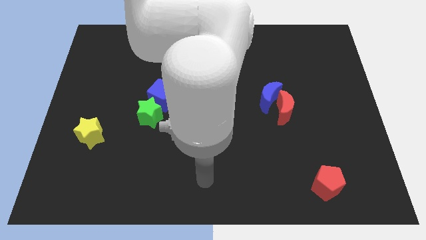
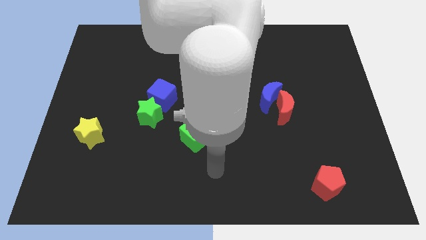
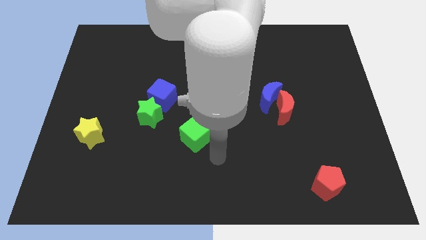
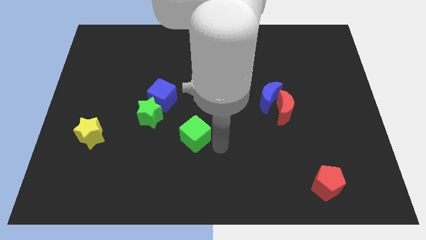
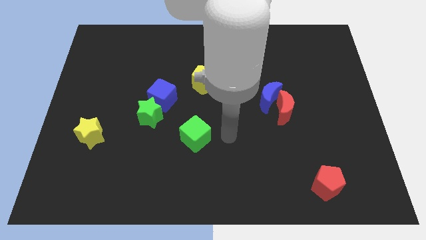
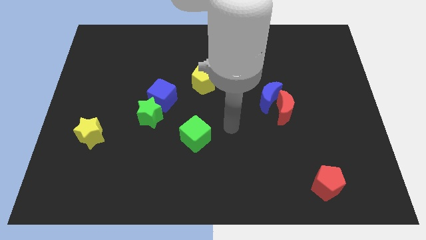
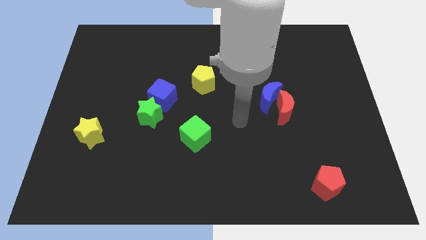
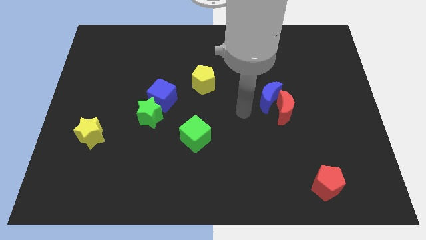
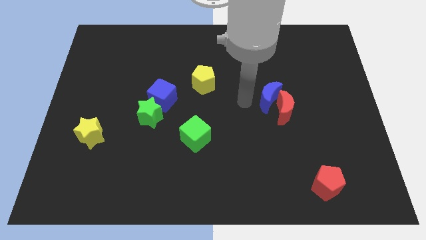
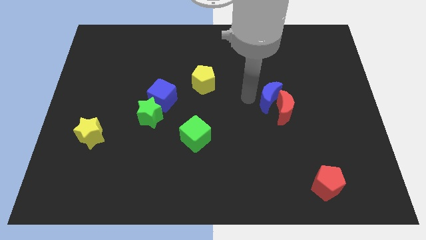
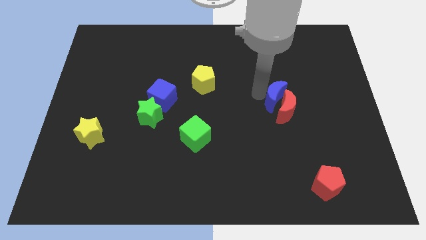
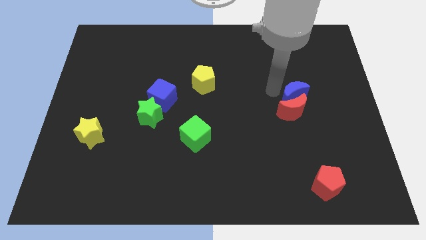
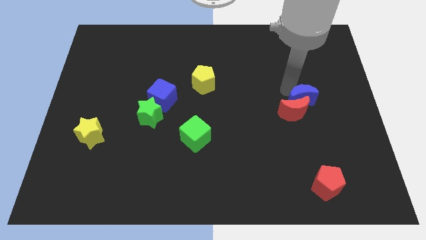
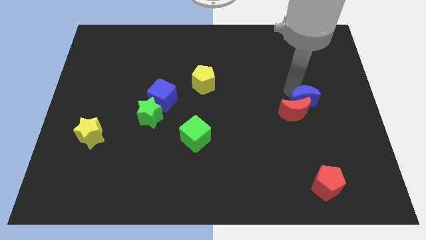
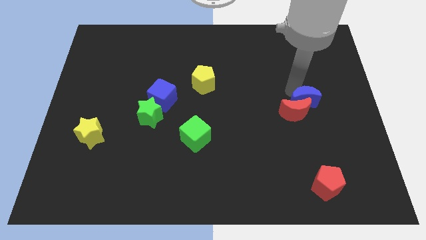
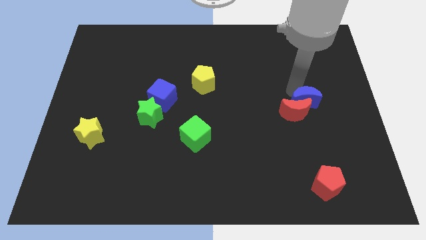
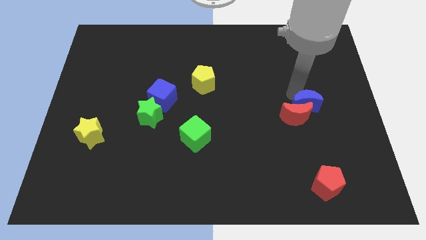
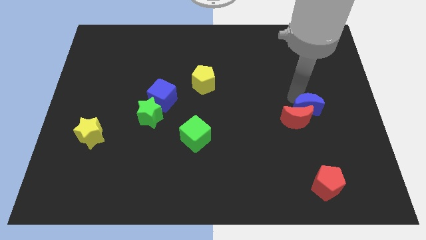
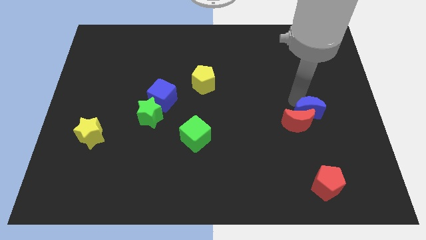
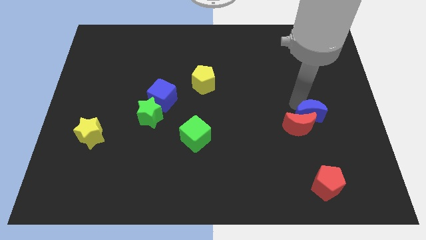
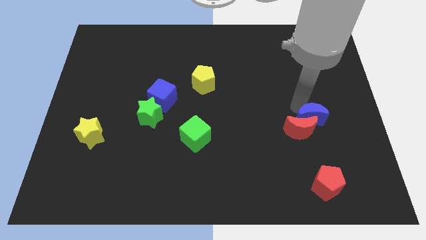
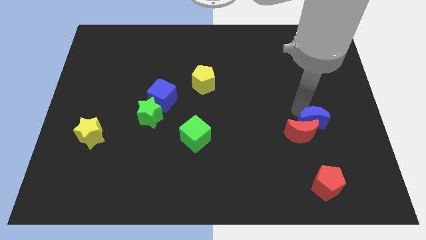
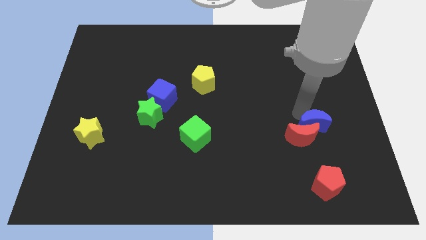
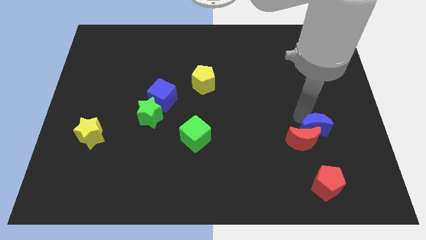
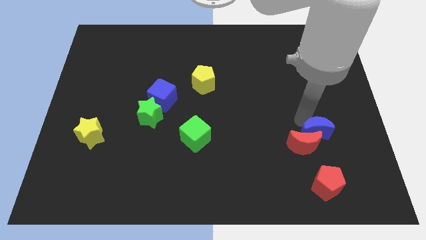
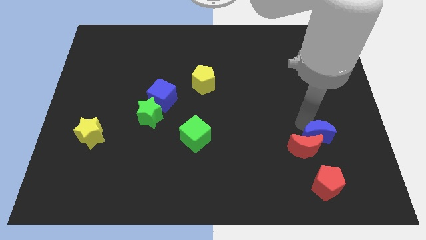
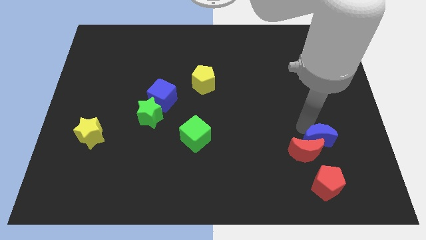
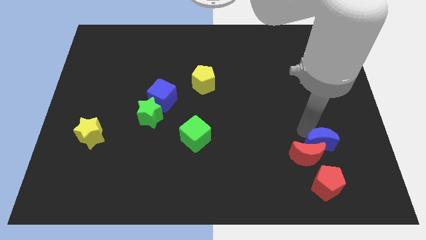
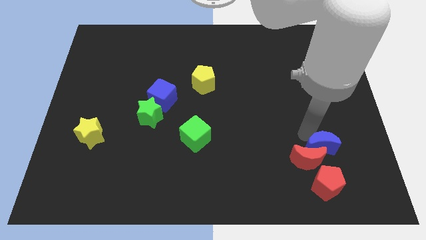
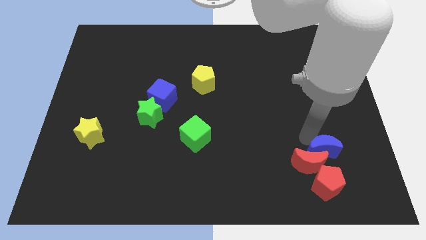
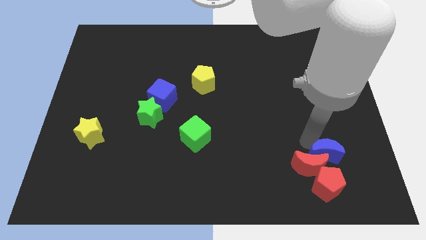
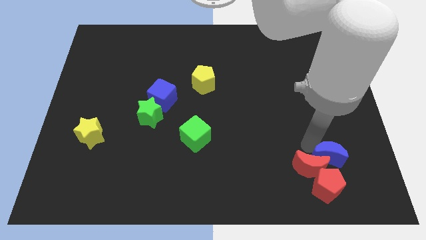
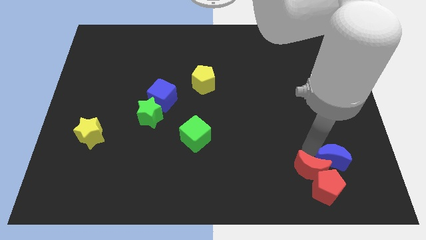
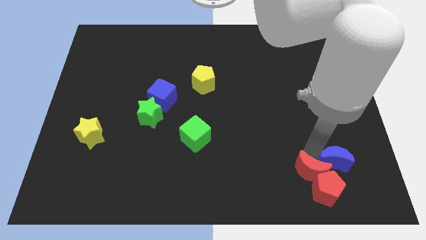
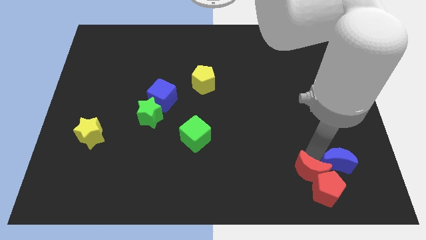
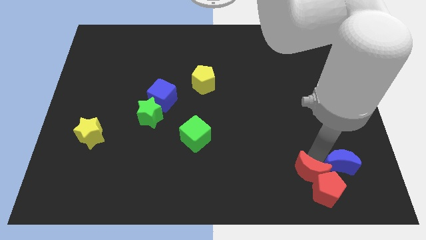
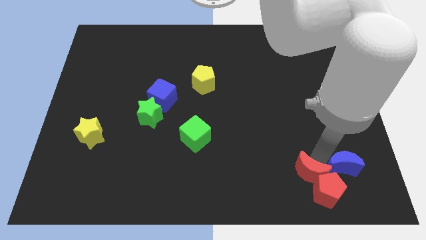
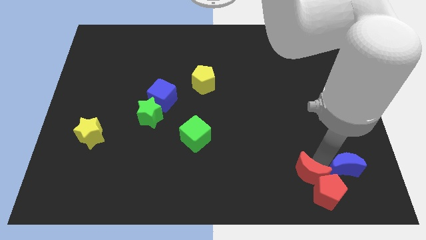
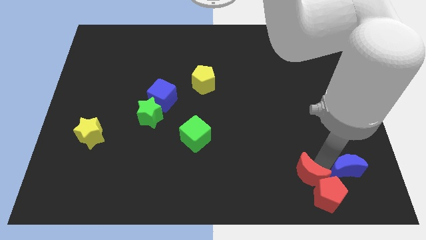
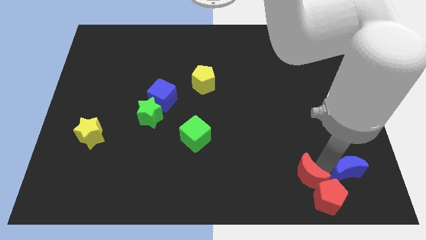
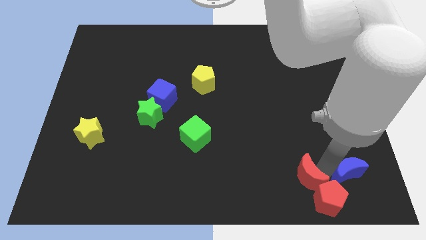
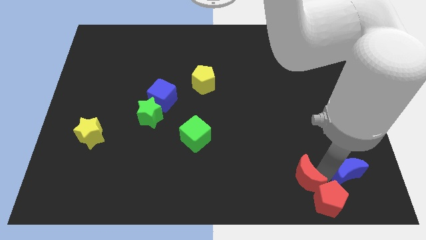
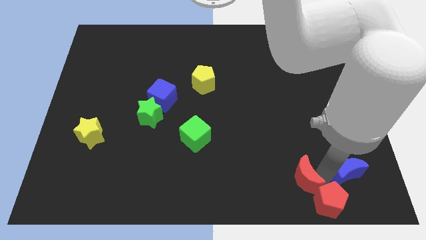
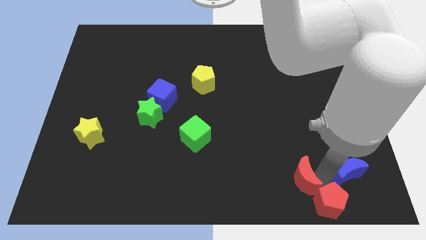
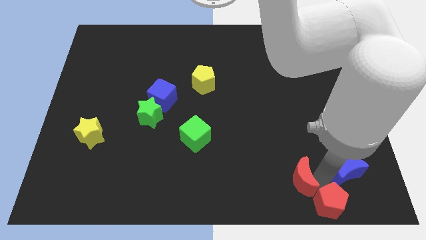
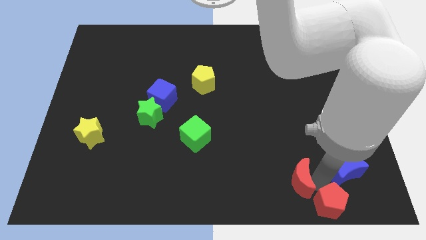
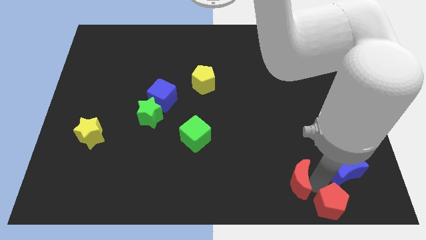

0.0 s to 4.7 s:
move the red moon away from the blue moon

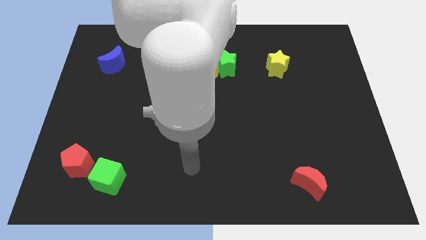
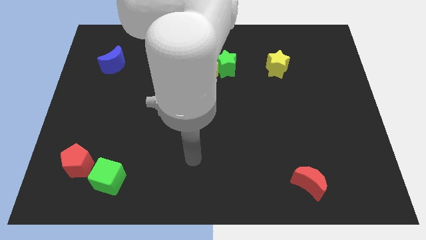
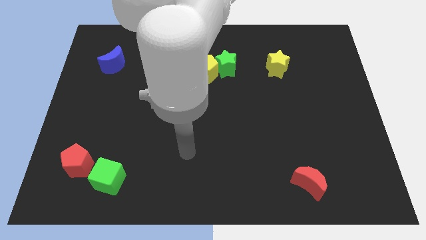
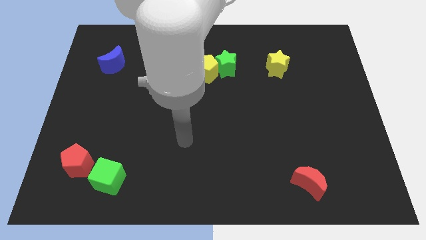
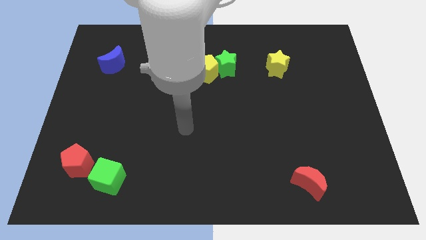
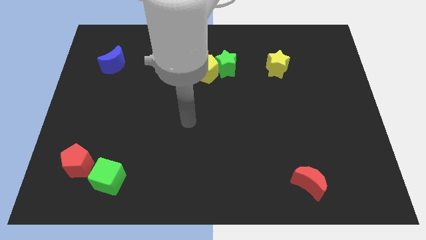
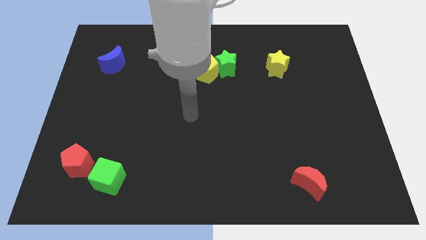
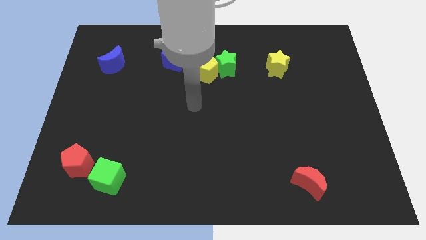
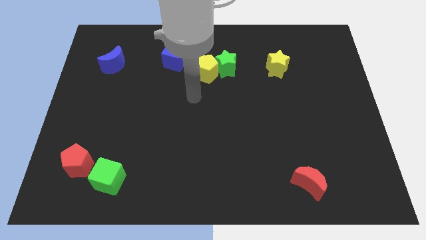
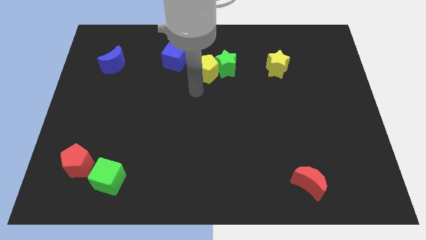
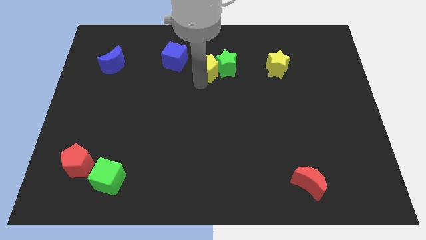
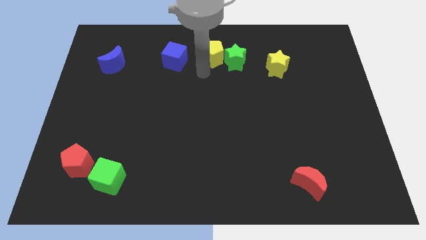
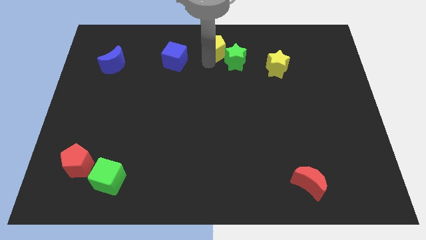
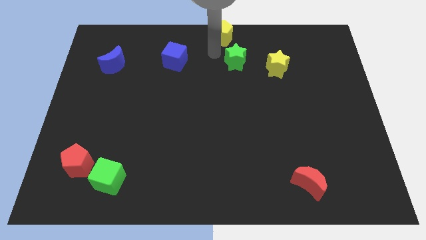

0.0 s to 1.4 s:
pull the green star apart from the yellow pentagon

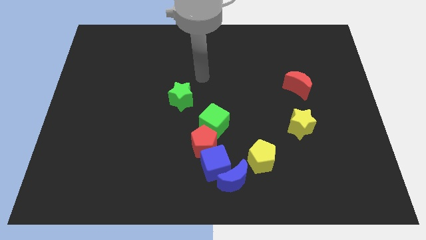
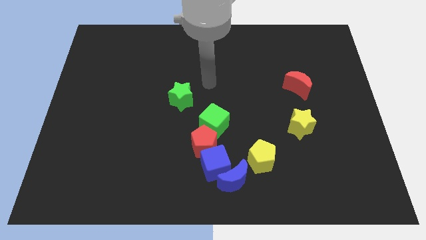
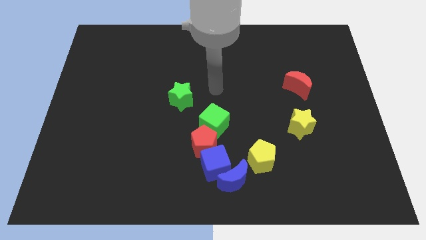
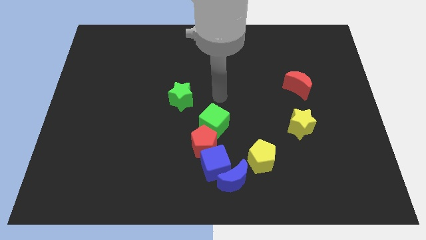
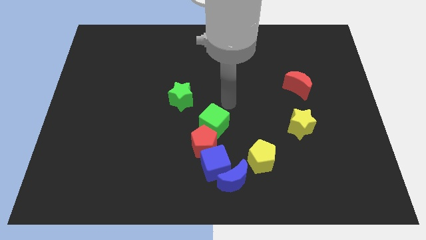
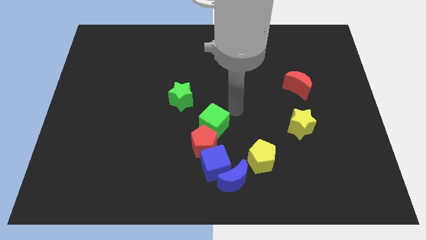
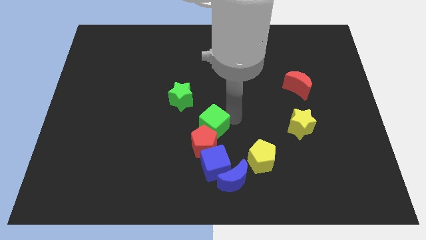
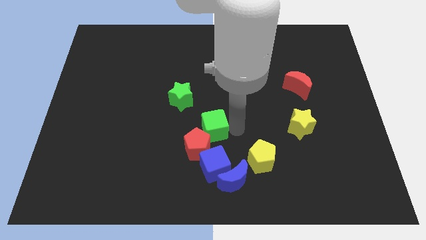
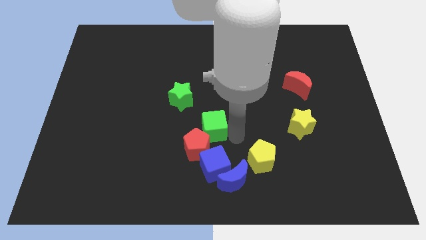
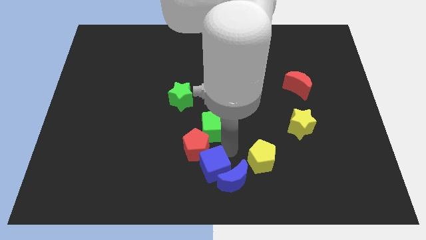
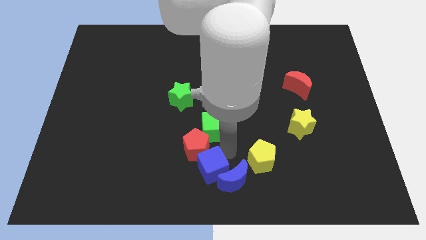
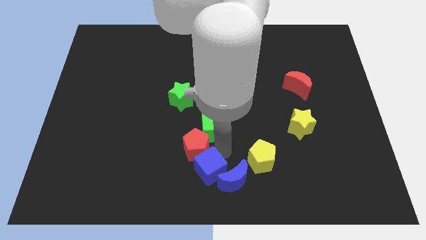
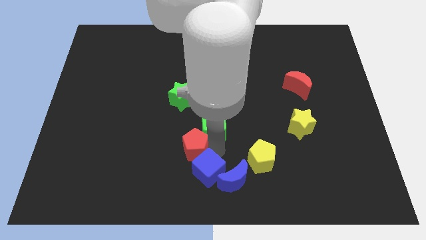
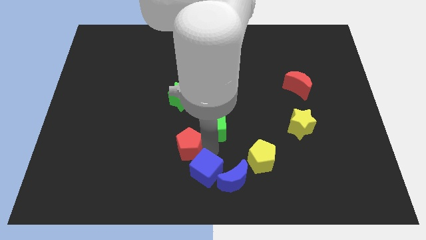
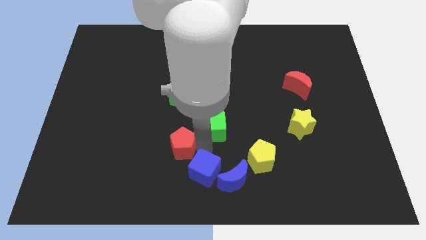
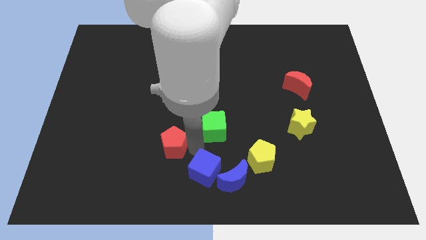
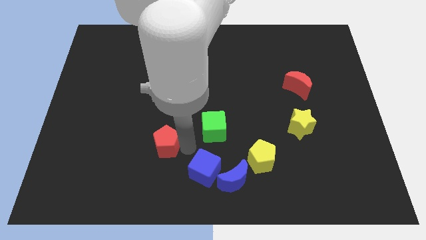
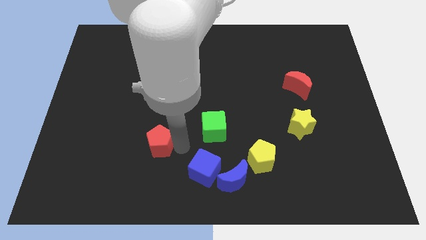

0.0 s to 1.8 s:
pull the red pentagon apart from the blue cube and green cube

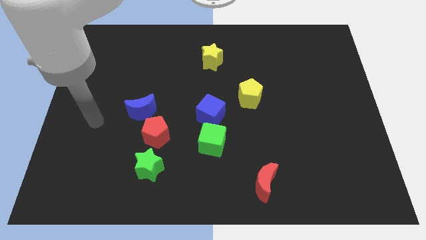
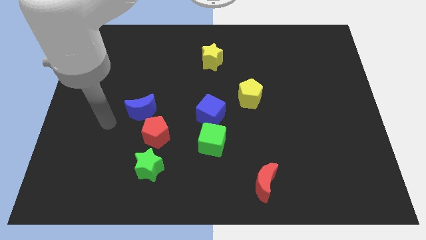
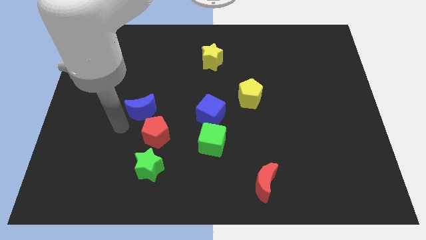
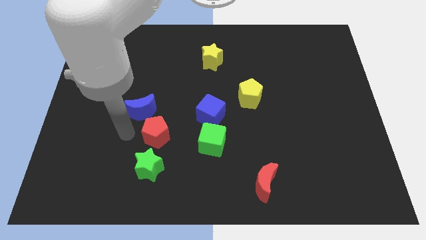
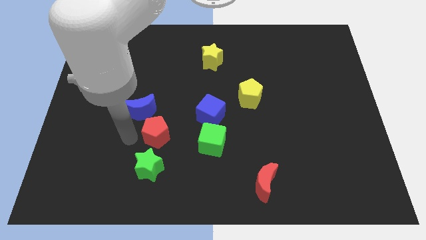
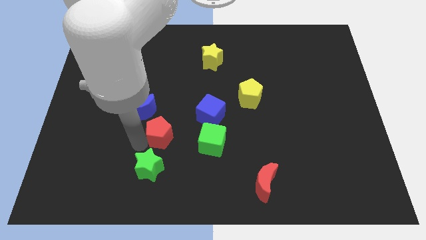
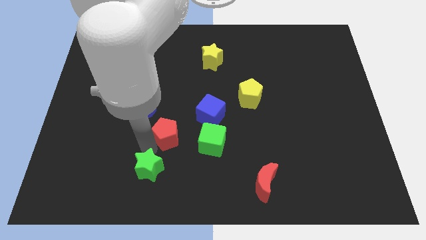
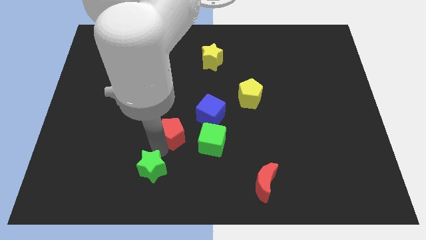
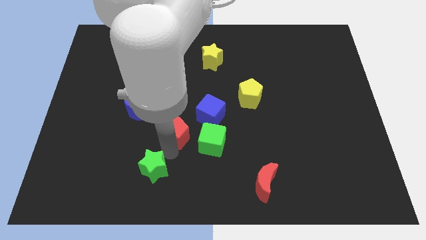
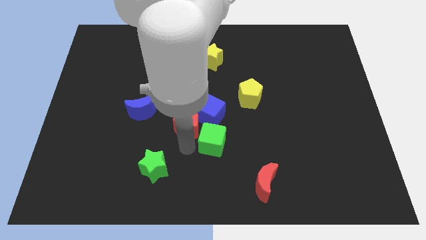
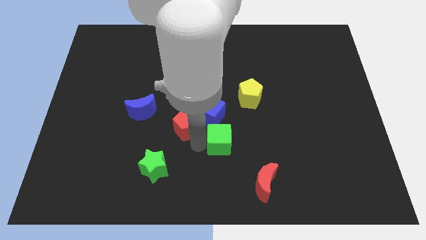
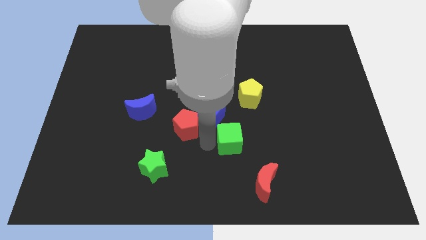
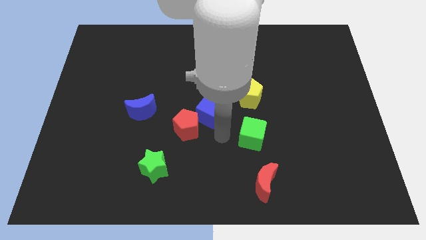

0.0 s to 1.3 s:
separate the blue cube from the green cube
